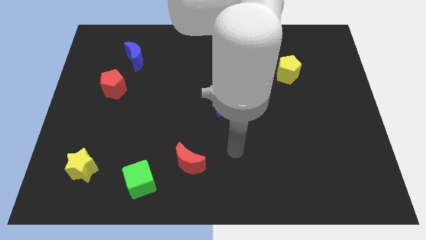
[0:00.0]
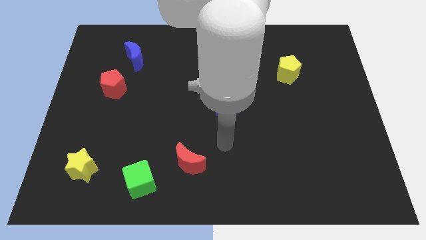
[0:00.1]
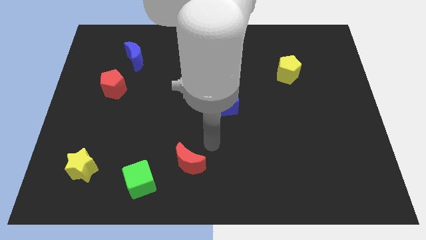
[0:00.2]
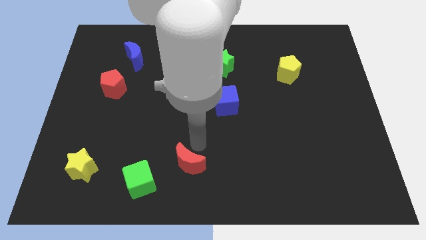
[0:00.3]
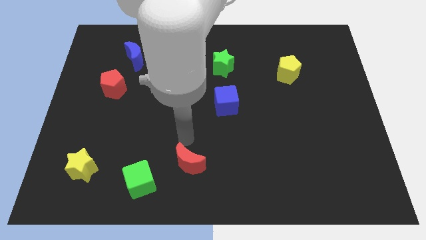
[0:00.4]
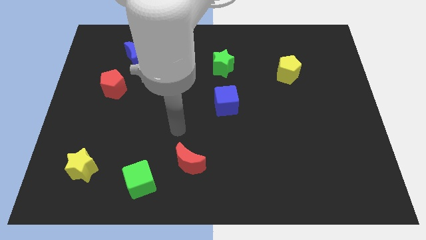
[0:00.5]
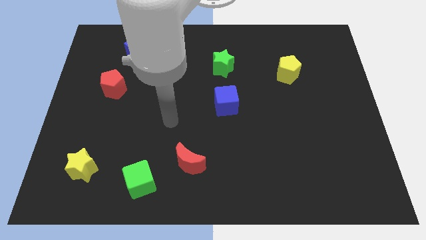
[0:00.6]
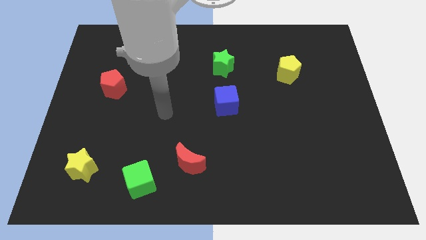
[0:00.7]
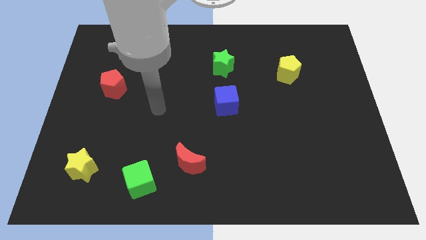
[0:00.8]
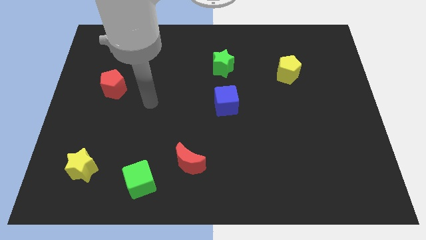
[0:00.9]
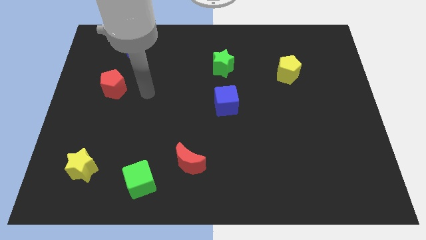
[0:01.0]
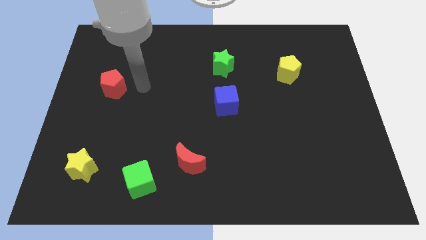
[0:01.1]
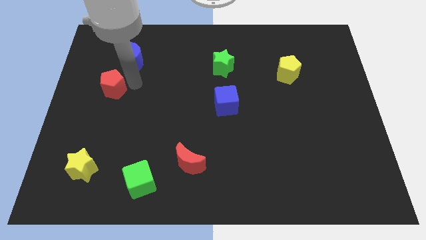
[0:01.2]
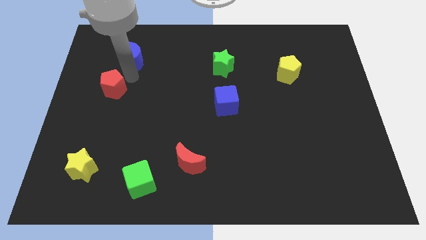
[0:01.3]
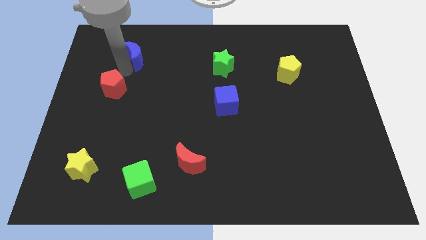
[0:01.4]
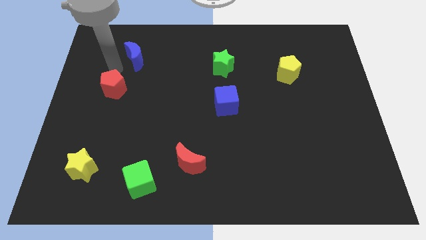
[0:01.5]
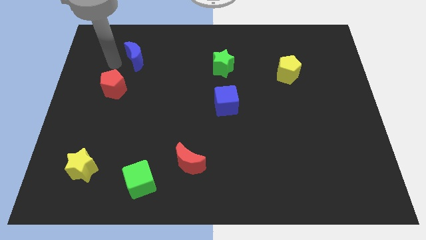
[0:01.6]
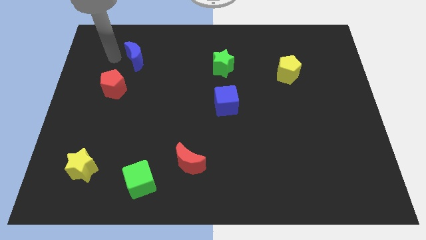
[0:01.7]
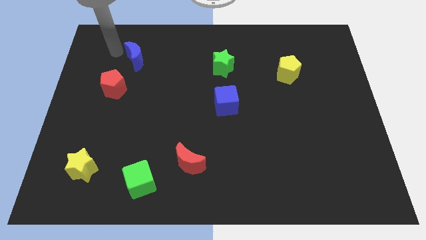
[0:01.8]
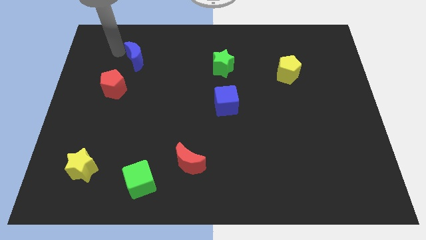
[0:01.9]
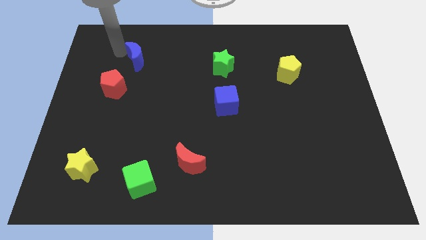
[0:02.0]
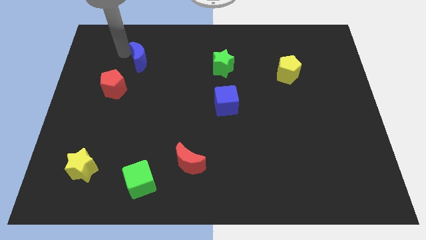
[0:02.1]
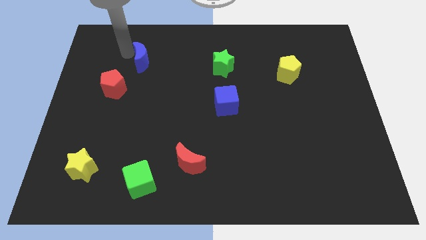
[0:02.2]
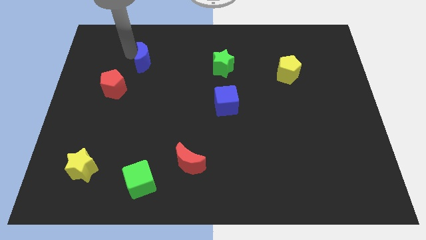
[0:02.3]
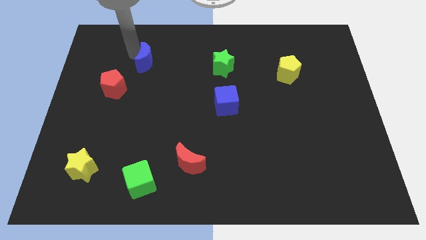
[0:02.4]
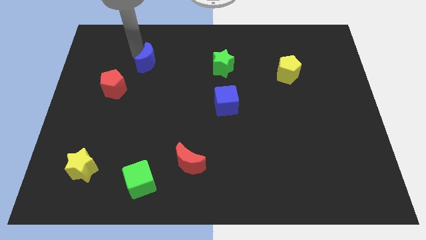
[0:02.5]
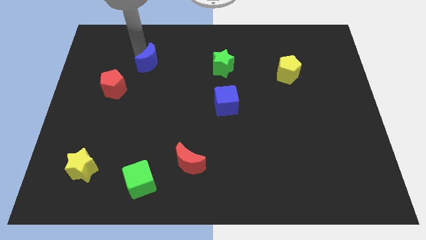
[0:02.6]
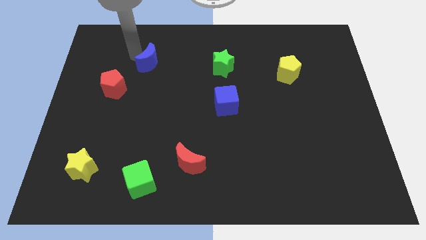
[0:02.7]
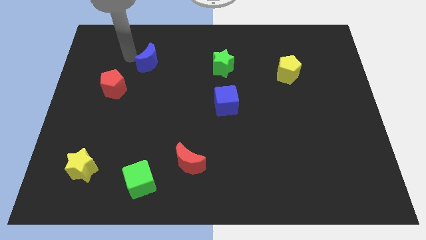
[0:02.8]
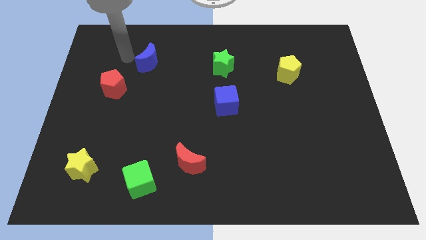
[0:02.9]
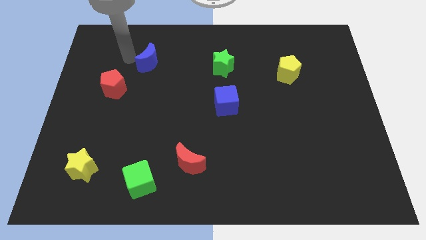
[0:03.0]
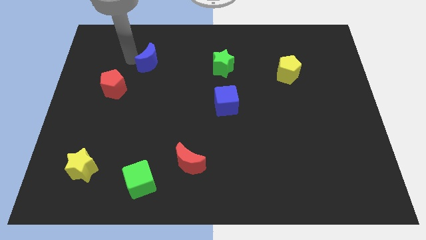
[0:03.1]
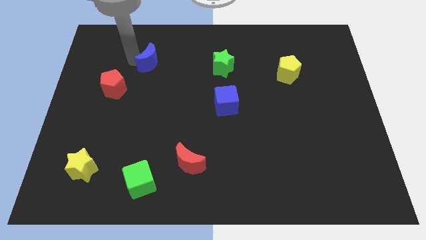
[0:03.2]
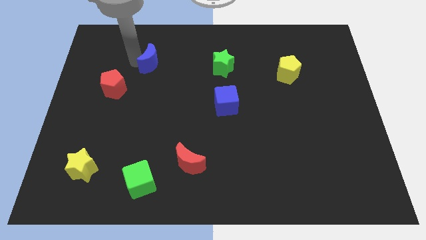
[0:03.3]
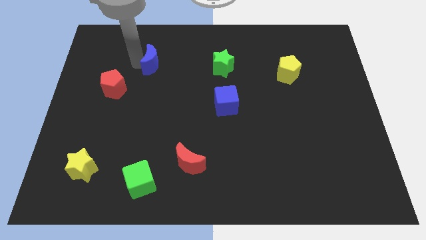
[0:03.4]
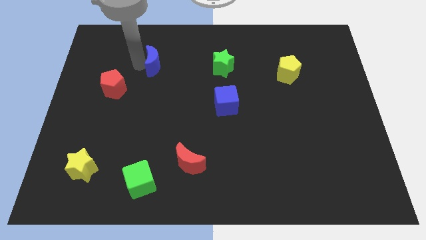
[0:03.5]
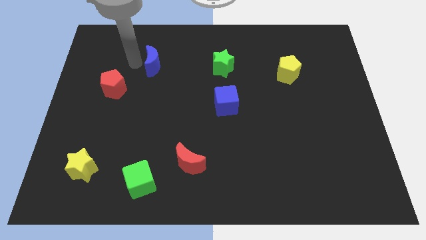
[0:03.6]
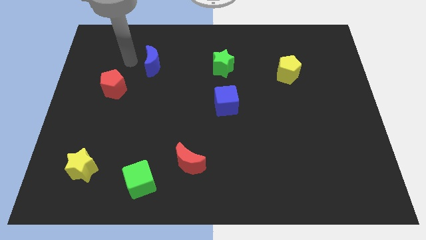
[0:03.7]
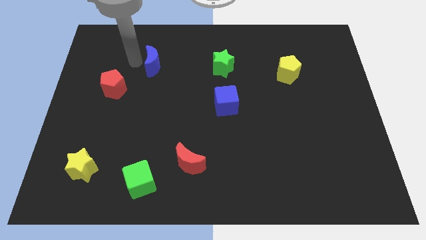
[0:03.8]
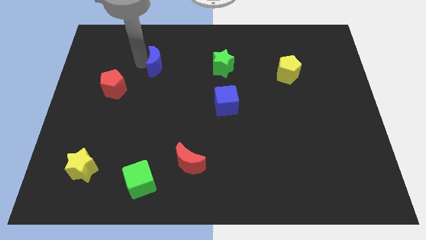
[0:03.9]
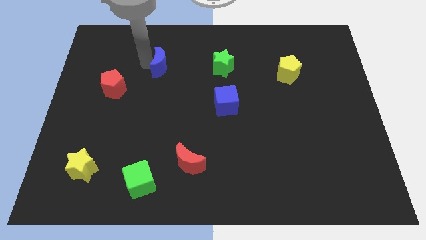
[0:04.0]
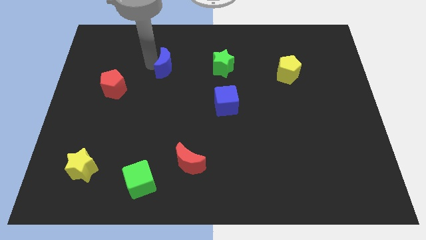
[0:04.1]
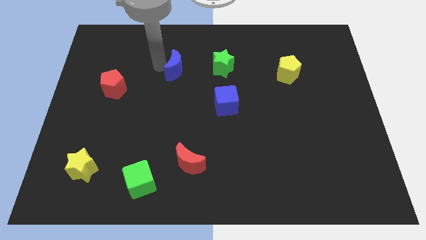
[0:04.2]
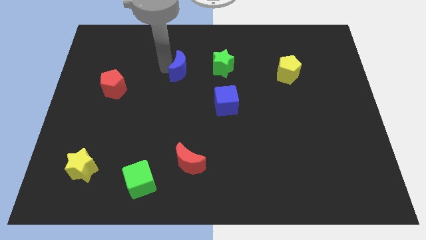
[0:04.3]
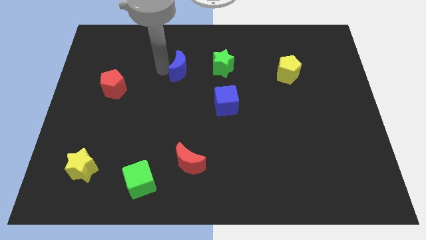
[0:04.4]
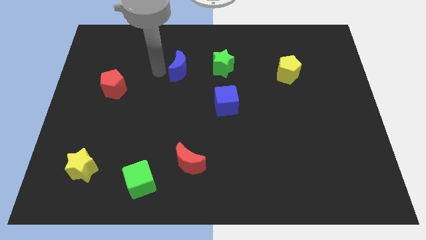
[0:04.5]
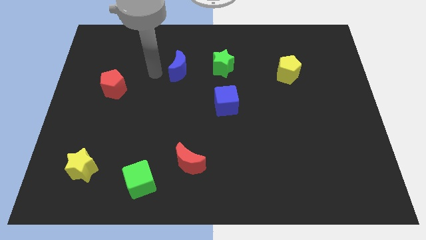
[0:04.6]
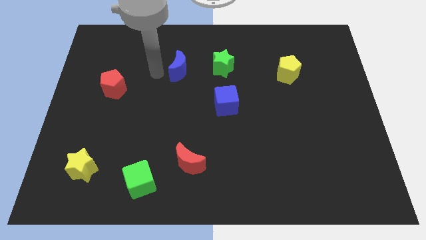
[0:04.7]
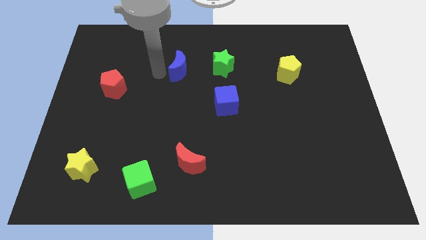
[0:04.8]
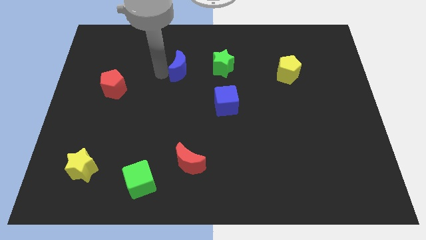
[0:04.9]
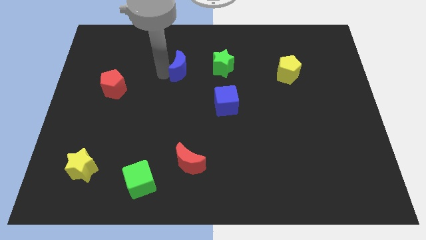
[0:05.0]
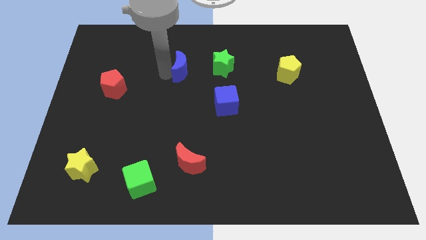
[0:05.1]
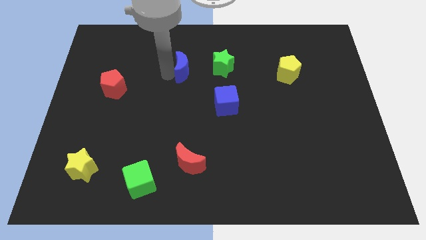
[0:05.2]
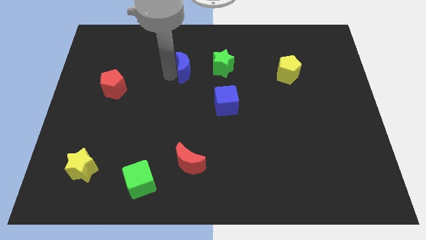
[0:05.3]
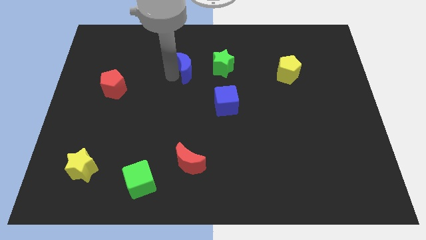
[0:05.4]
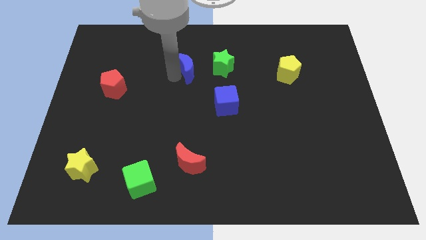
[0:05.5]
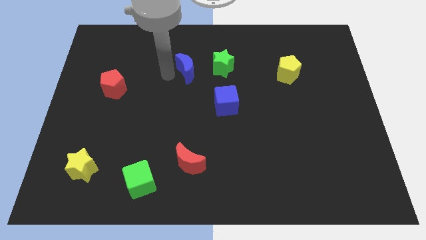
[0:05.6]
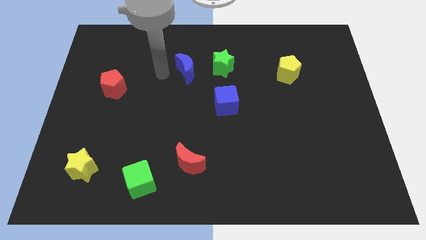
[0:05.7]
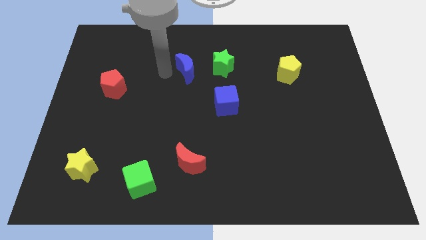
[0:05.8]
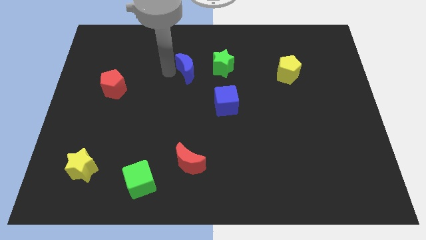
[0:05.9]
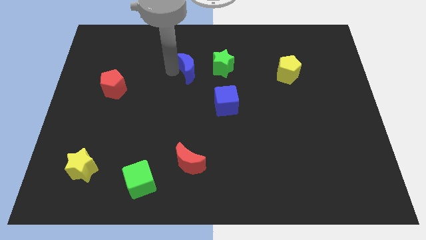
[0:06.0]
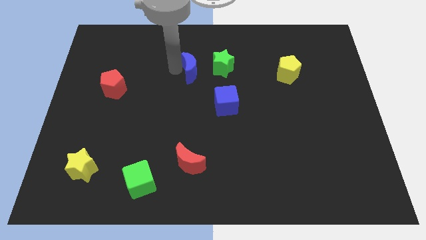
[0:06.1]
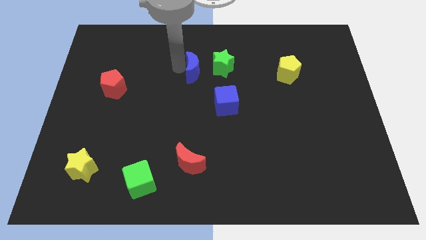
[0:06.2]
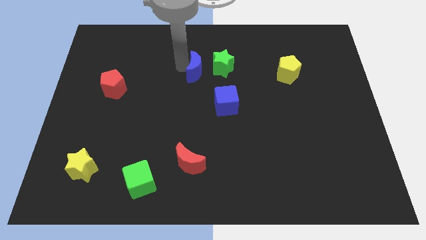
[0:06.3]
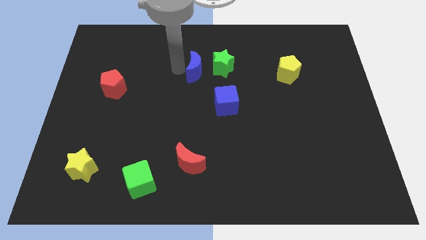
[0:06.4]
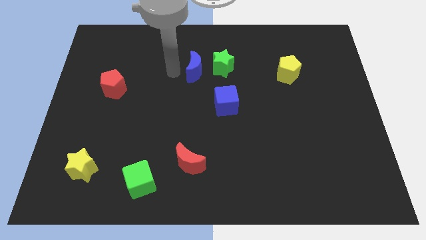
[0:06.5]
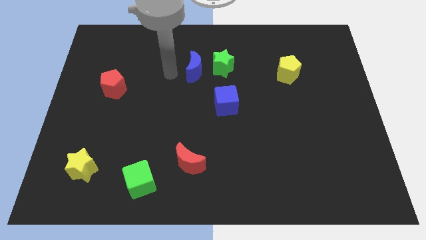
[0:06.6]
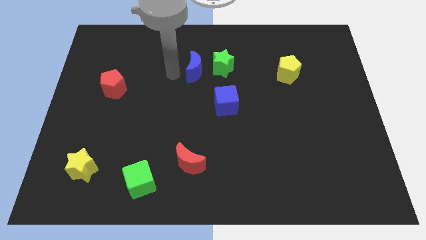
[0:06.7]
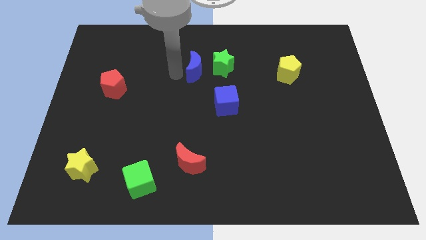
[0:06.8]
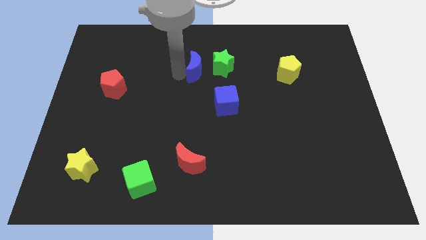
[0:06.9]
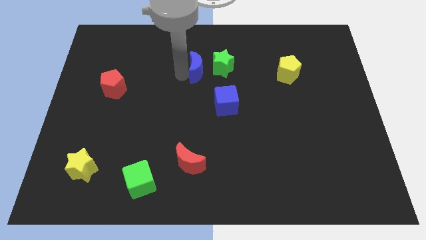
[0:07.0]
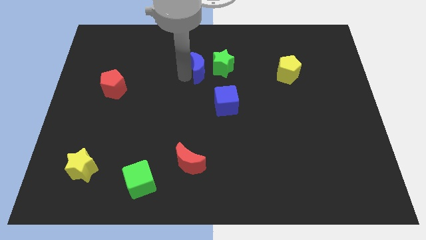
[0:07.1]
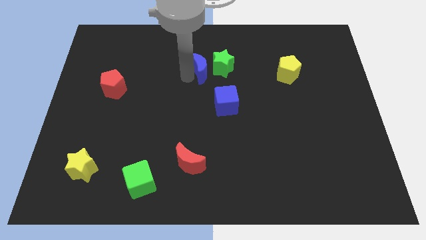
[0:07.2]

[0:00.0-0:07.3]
push the blue moon next to the green star
